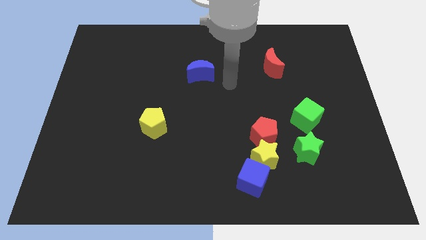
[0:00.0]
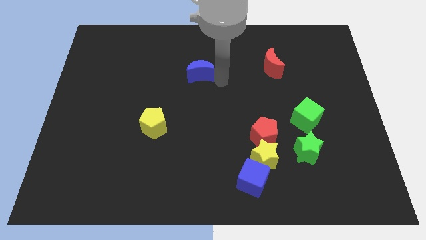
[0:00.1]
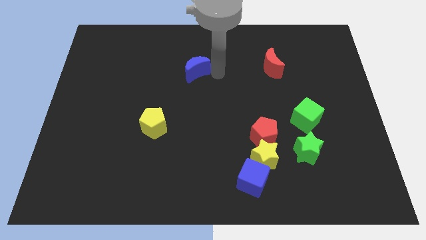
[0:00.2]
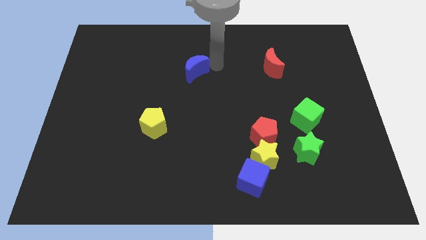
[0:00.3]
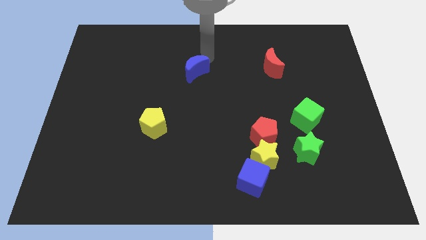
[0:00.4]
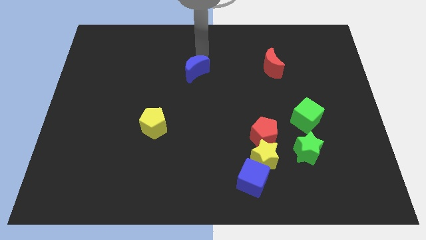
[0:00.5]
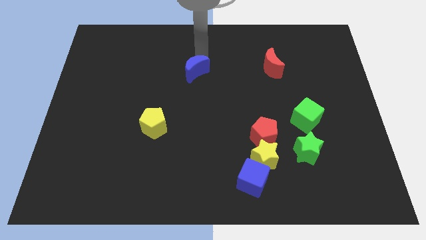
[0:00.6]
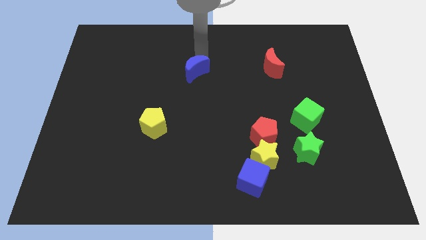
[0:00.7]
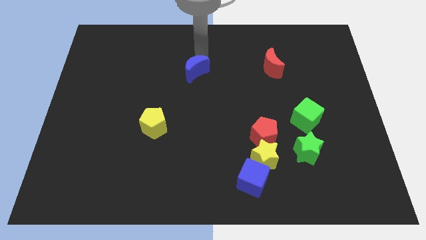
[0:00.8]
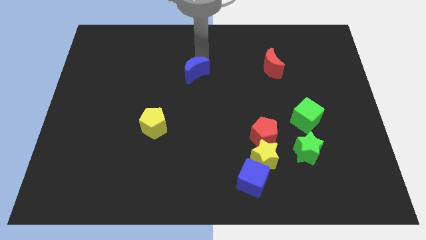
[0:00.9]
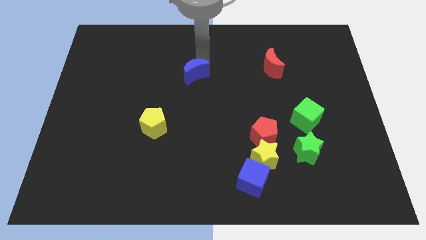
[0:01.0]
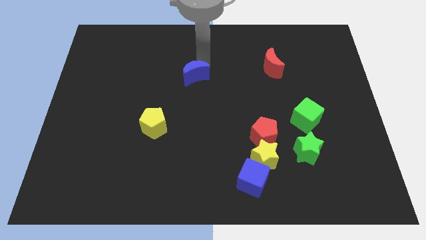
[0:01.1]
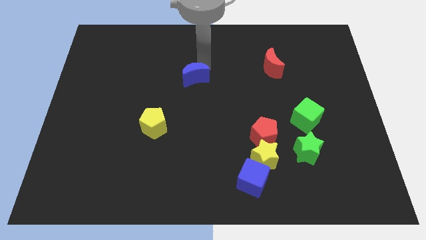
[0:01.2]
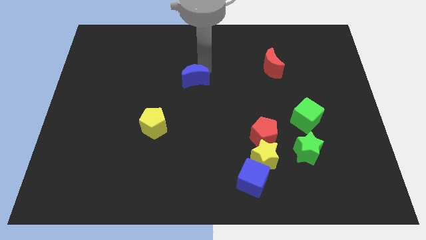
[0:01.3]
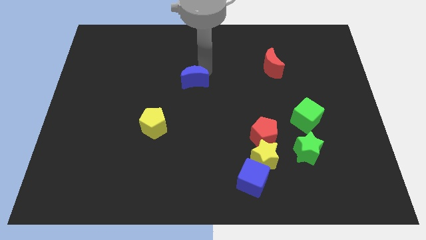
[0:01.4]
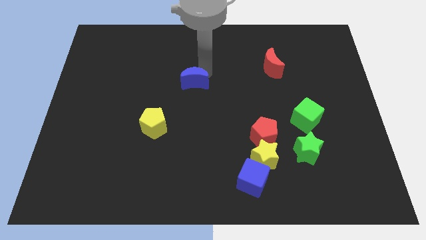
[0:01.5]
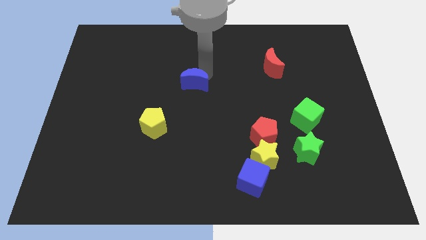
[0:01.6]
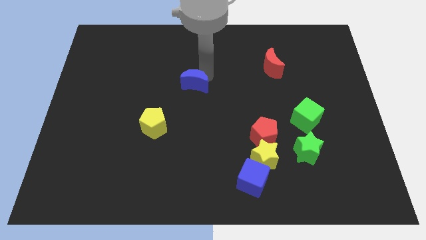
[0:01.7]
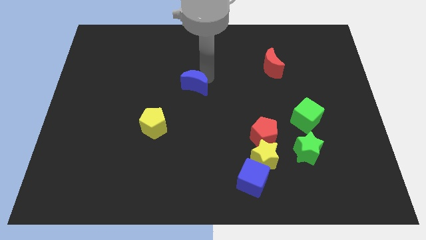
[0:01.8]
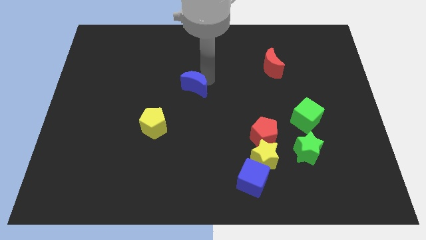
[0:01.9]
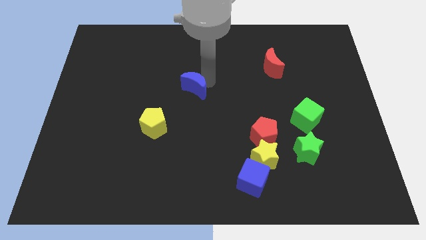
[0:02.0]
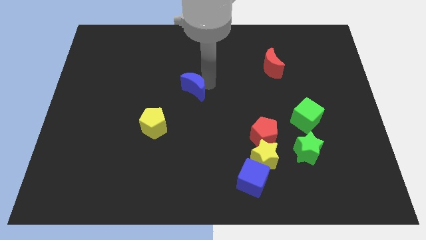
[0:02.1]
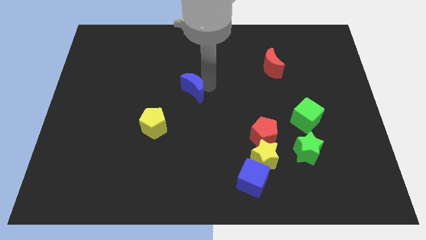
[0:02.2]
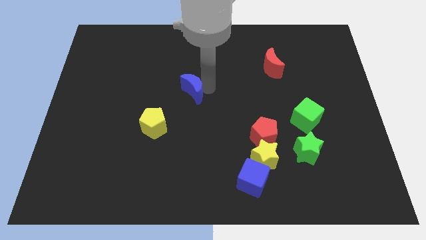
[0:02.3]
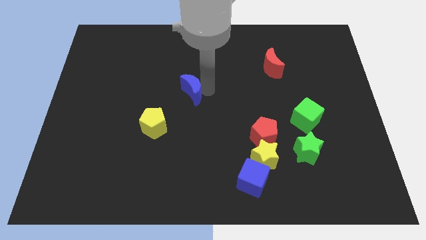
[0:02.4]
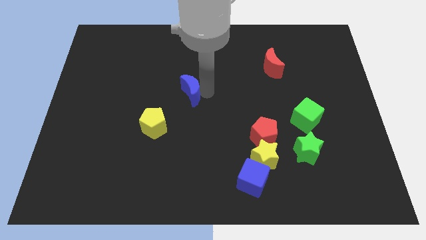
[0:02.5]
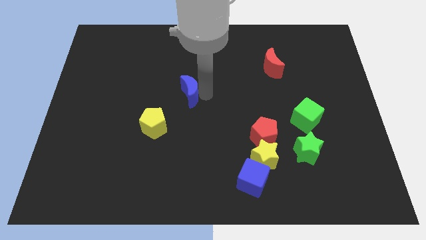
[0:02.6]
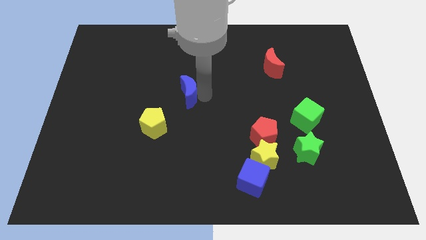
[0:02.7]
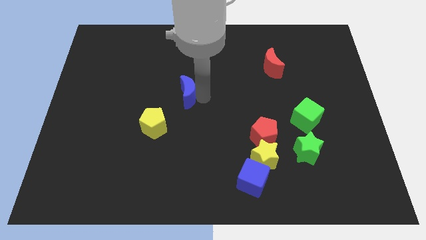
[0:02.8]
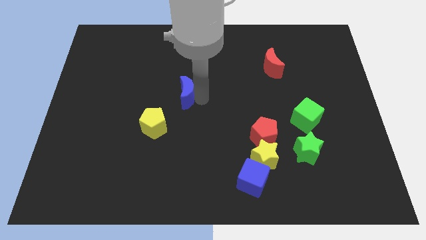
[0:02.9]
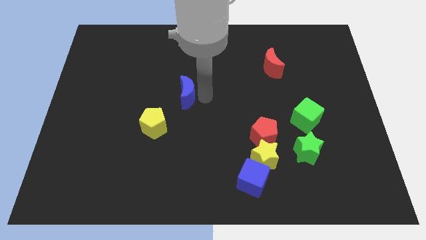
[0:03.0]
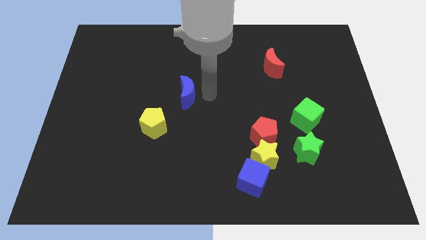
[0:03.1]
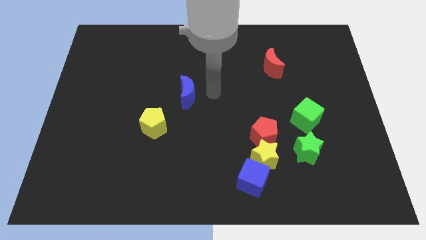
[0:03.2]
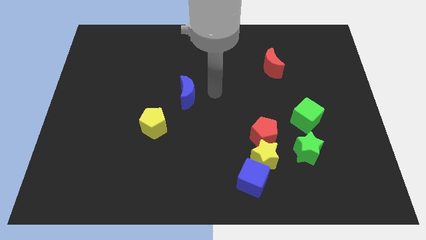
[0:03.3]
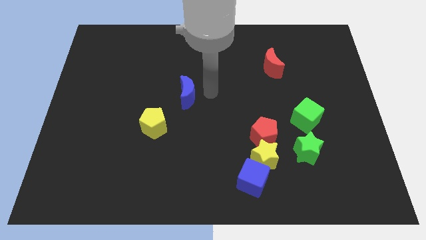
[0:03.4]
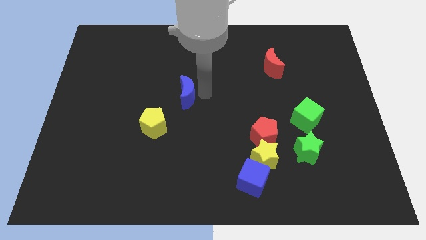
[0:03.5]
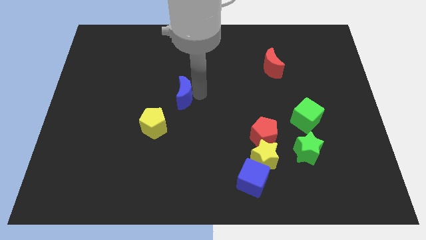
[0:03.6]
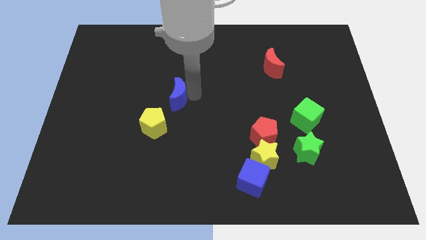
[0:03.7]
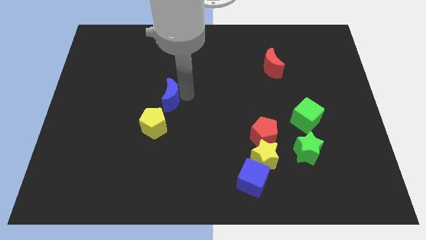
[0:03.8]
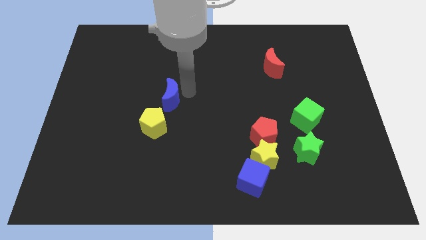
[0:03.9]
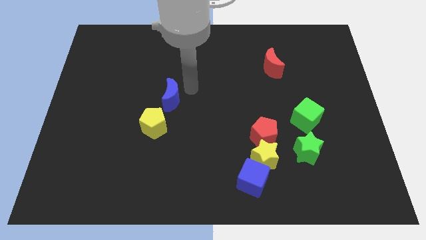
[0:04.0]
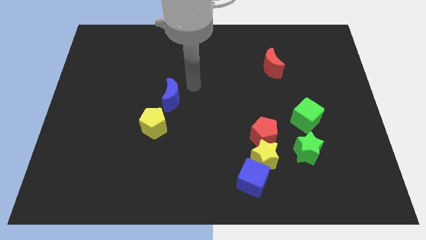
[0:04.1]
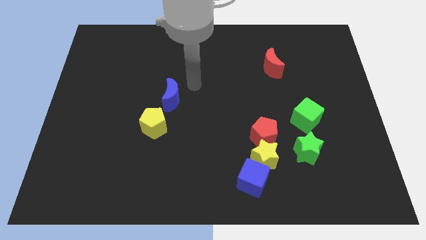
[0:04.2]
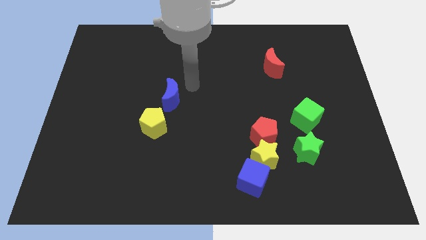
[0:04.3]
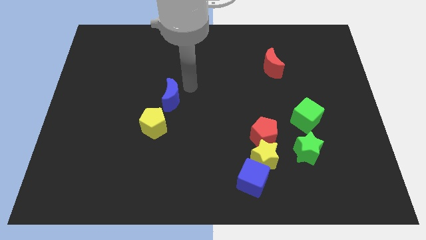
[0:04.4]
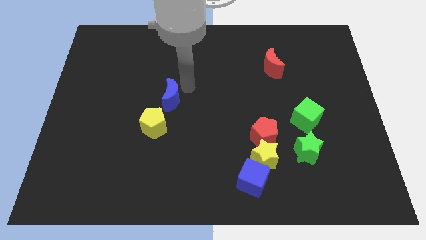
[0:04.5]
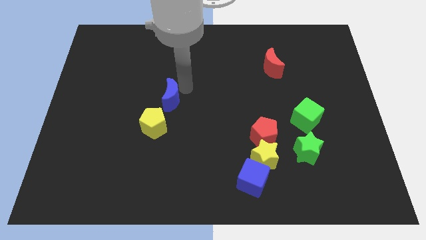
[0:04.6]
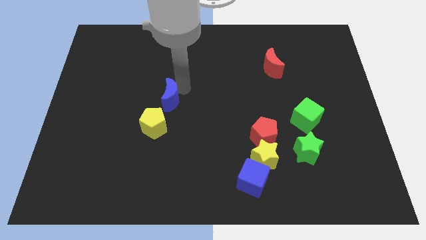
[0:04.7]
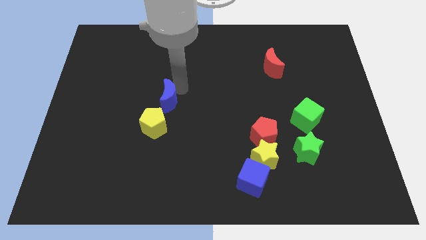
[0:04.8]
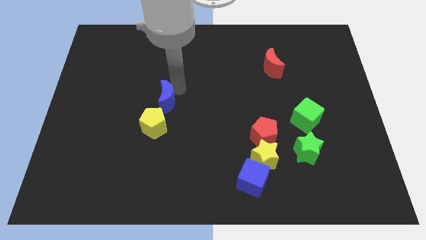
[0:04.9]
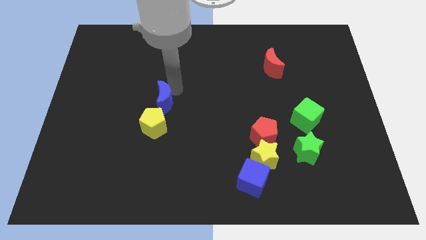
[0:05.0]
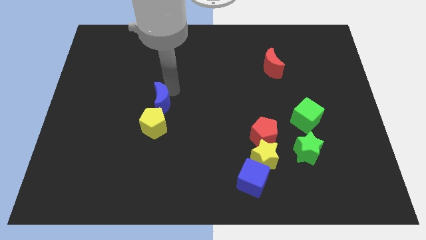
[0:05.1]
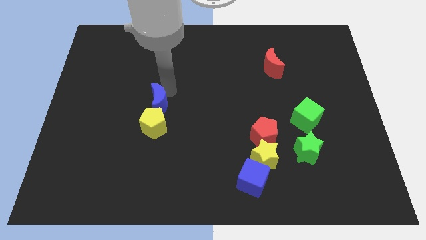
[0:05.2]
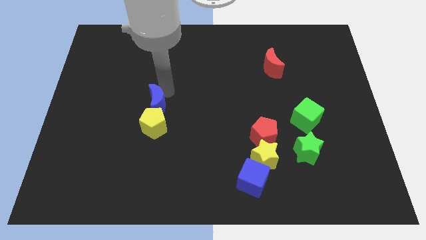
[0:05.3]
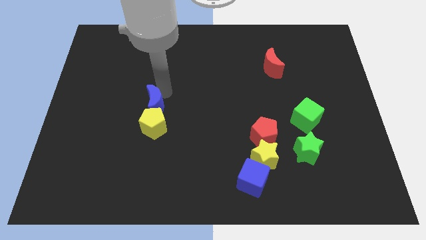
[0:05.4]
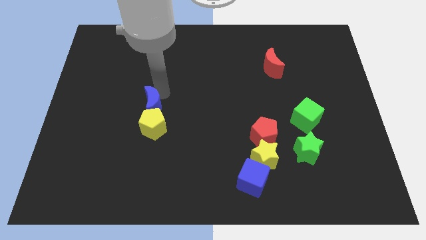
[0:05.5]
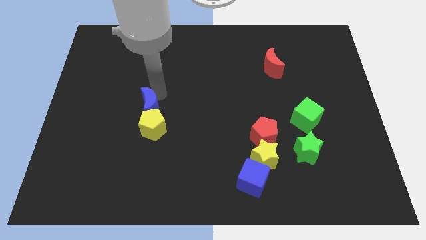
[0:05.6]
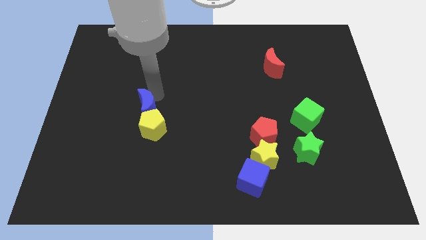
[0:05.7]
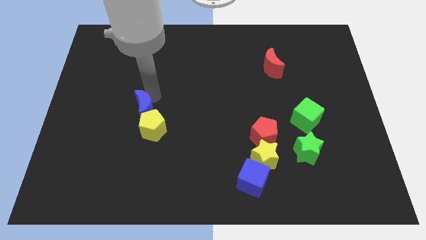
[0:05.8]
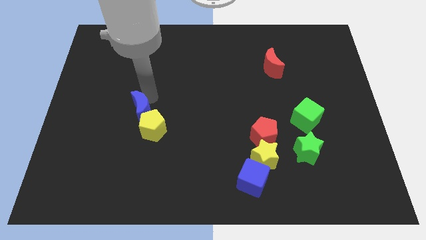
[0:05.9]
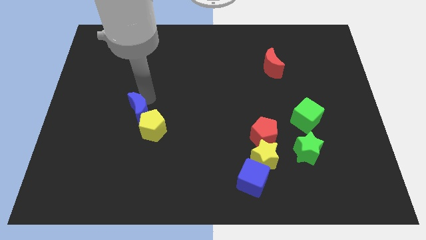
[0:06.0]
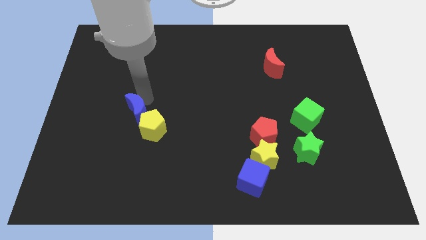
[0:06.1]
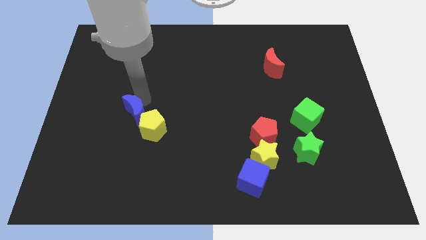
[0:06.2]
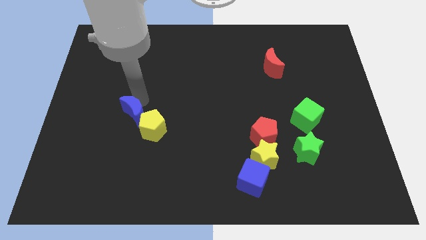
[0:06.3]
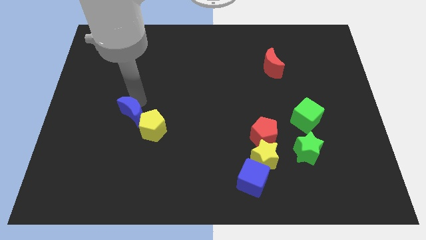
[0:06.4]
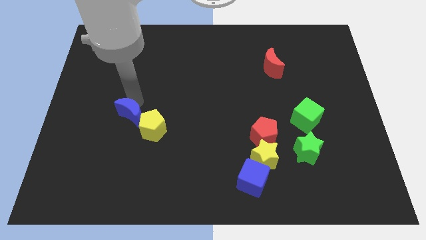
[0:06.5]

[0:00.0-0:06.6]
slide the blue moon down and left

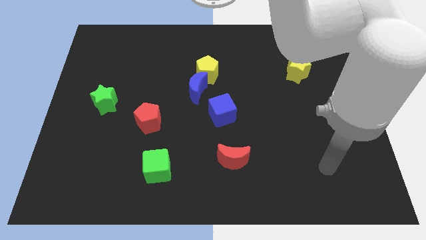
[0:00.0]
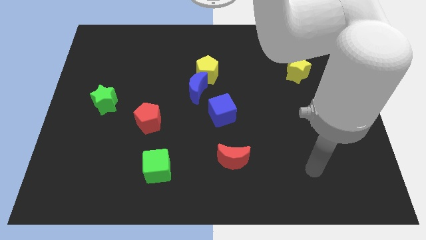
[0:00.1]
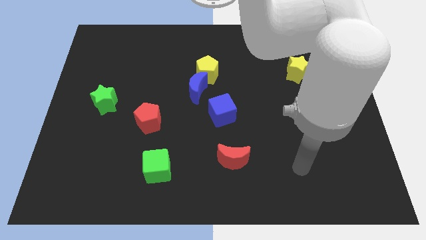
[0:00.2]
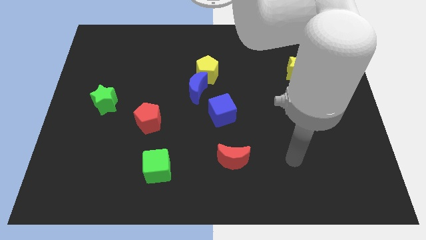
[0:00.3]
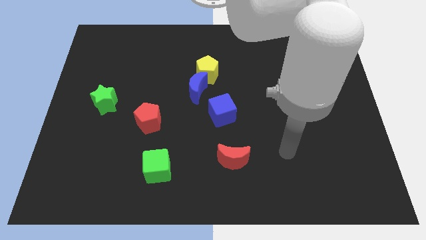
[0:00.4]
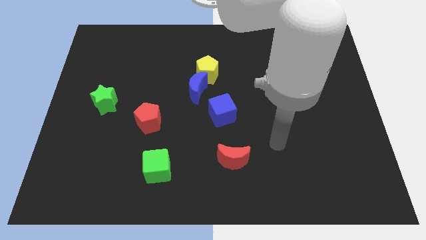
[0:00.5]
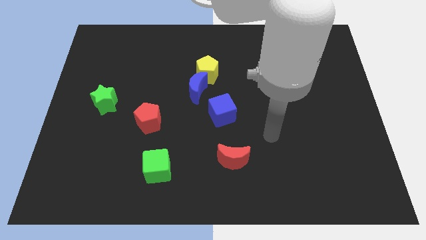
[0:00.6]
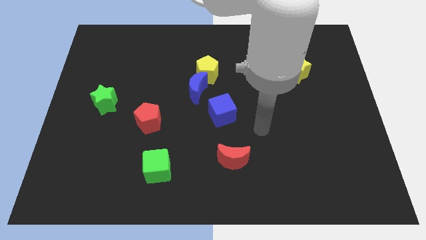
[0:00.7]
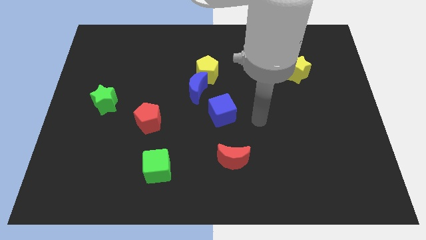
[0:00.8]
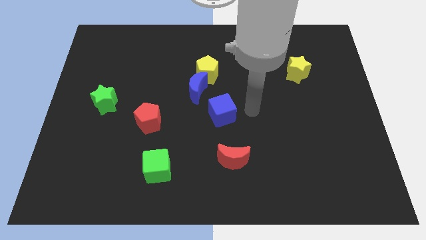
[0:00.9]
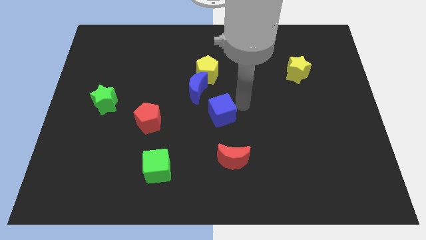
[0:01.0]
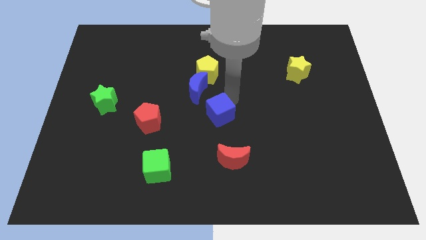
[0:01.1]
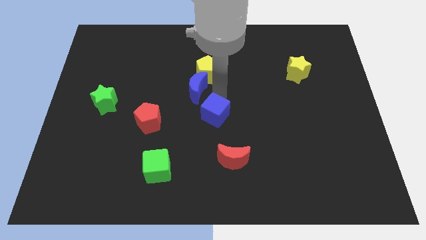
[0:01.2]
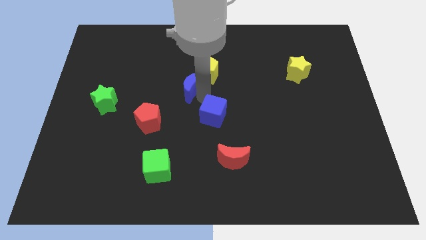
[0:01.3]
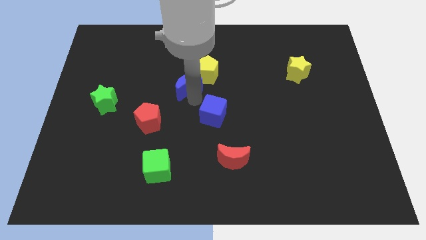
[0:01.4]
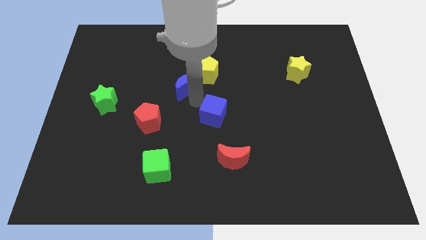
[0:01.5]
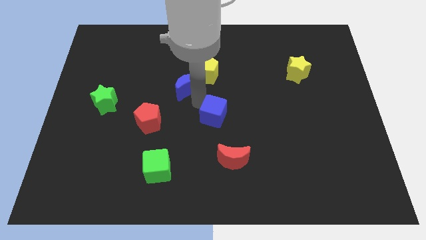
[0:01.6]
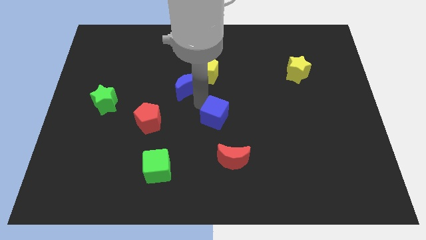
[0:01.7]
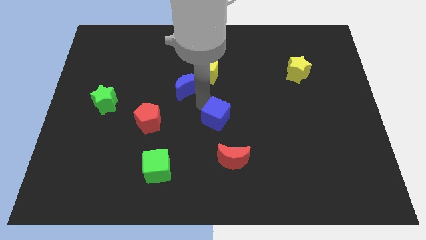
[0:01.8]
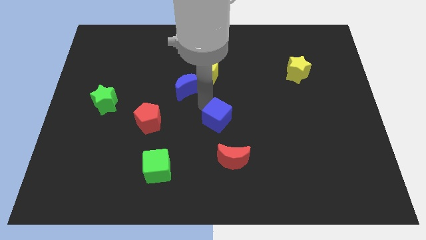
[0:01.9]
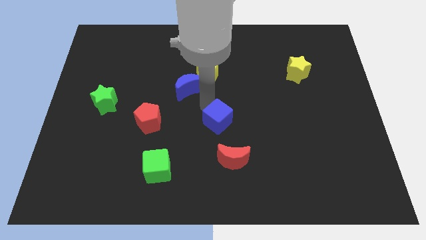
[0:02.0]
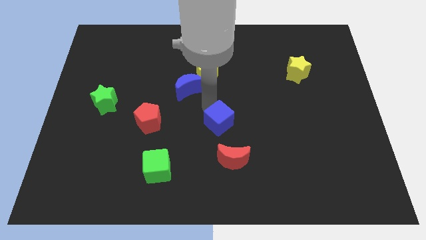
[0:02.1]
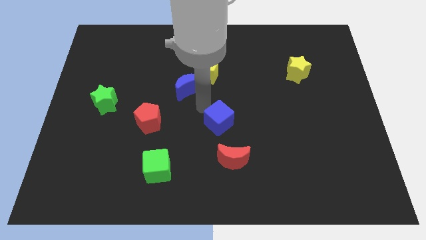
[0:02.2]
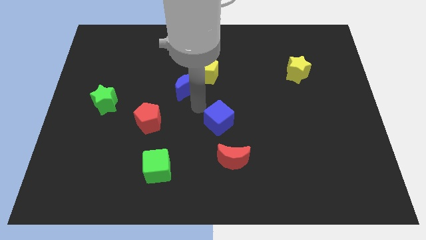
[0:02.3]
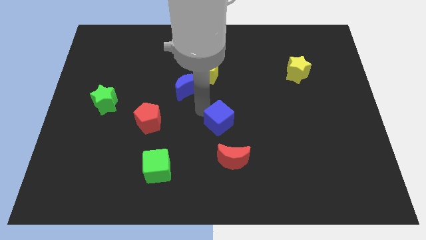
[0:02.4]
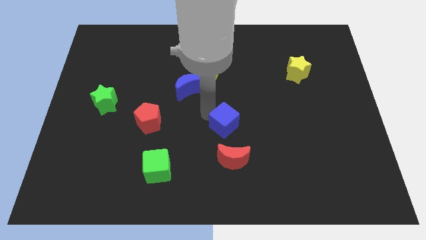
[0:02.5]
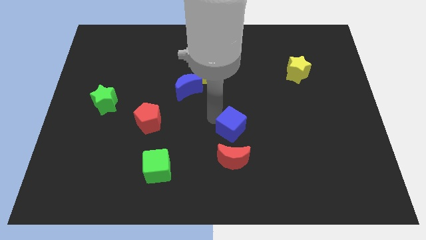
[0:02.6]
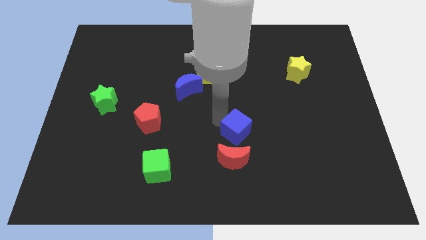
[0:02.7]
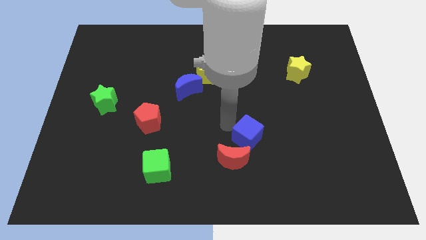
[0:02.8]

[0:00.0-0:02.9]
slightly move the blue cube downwards and to the right
